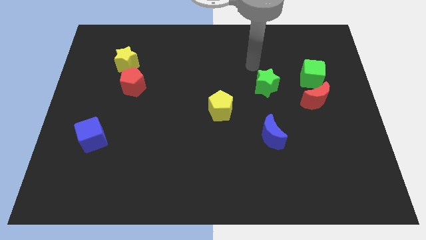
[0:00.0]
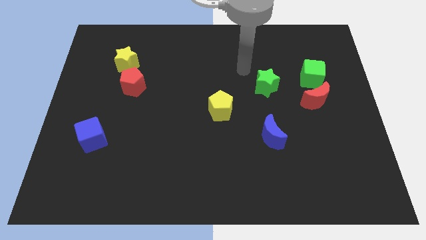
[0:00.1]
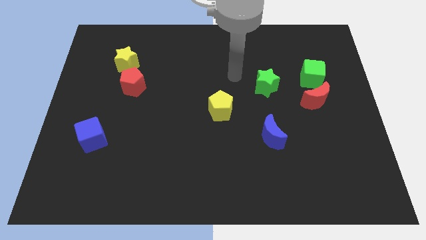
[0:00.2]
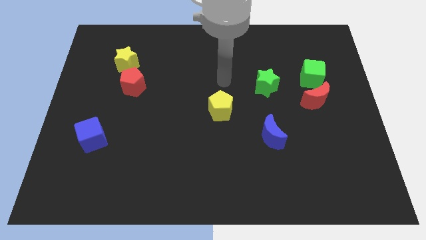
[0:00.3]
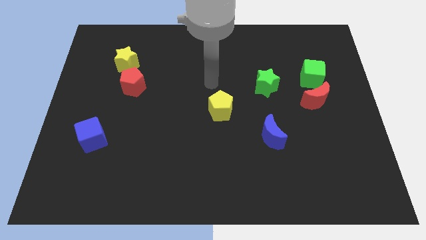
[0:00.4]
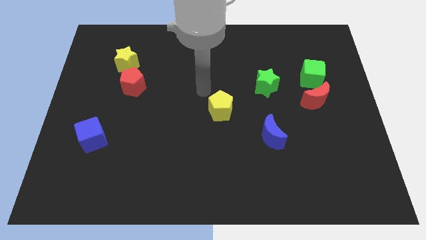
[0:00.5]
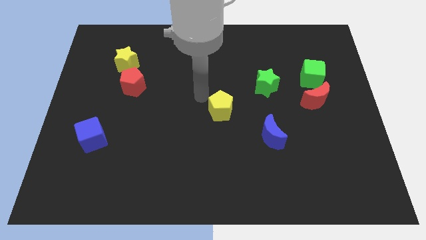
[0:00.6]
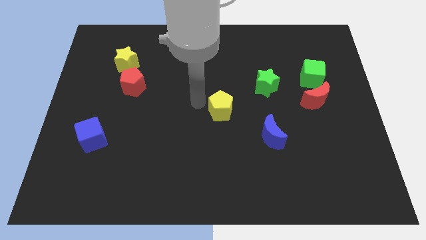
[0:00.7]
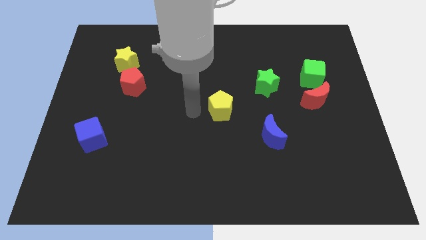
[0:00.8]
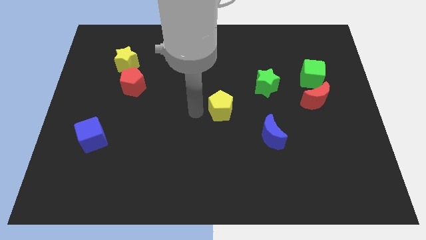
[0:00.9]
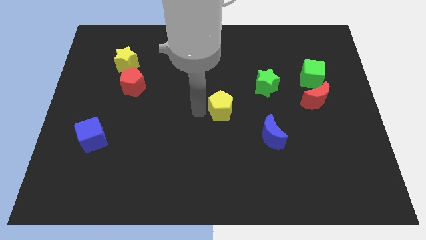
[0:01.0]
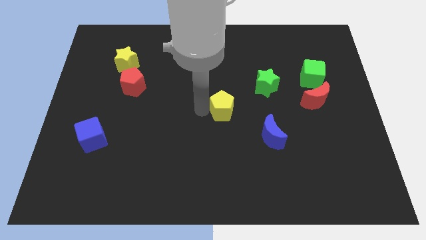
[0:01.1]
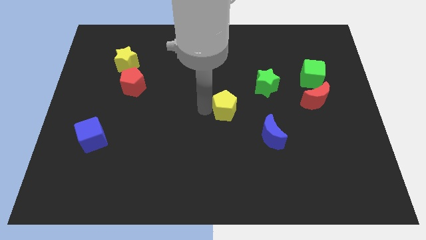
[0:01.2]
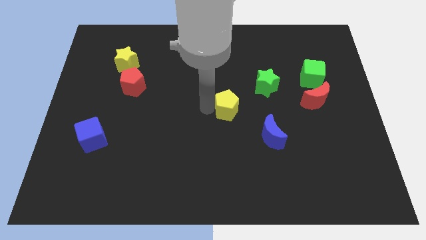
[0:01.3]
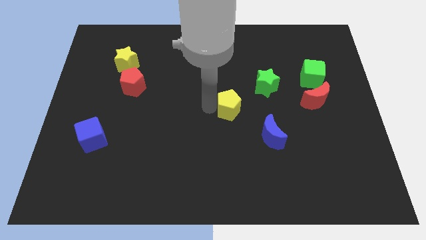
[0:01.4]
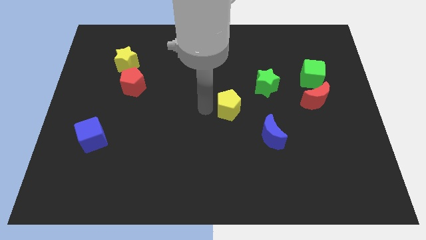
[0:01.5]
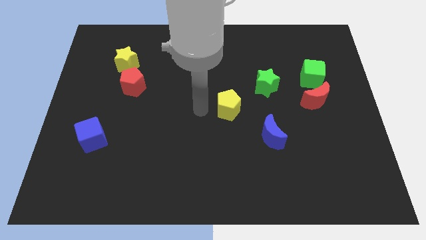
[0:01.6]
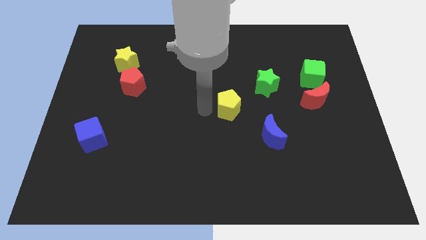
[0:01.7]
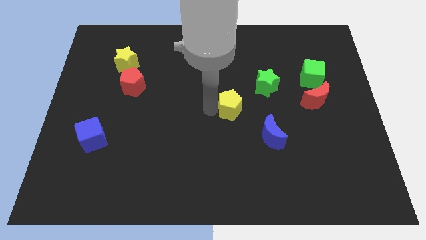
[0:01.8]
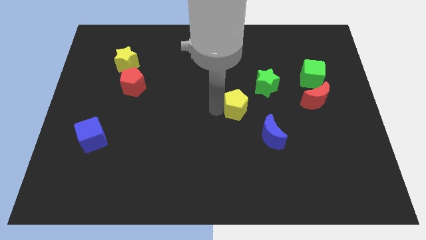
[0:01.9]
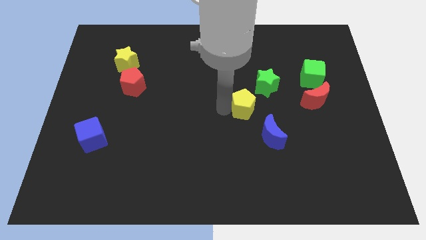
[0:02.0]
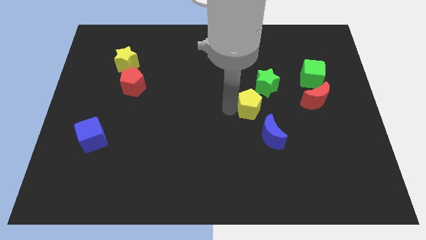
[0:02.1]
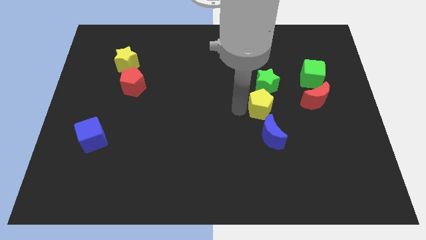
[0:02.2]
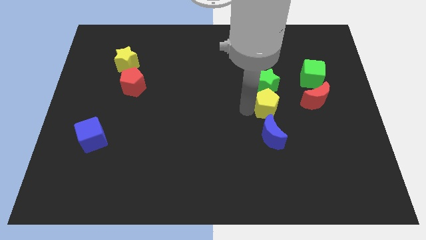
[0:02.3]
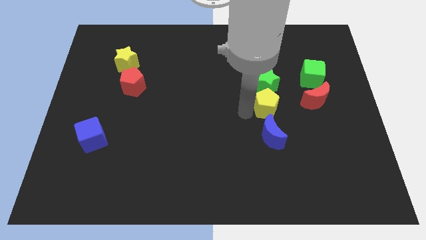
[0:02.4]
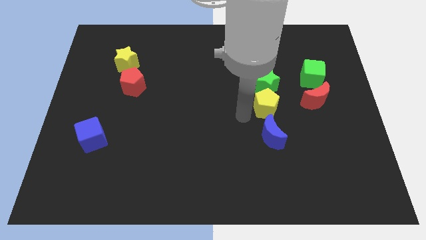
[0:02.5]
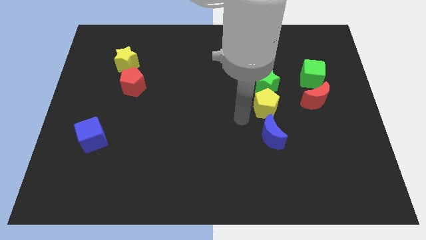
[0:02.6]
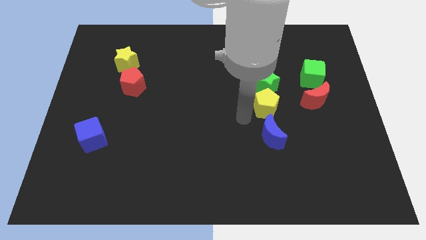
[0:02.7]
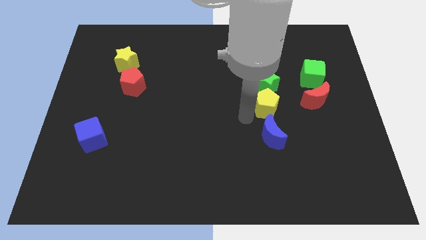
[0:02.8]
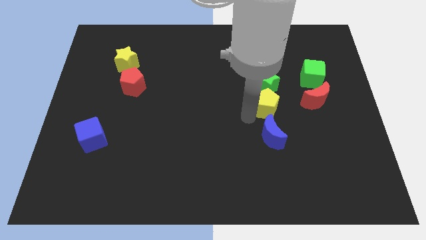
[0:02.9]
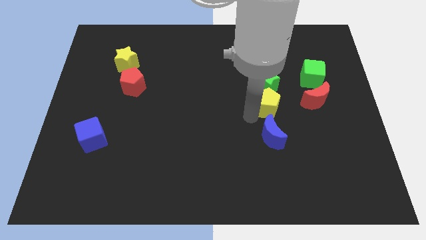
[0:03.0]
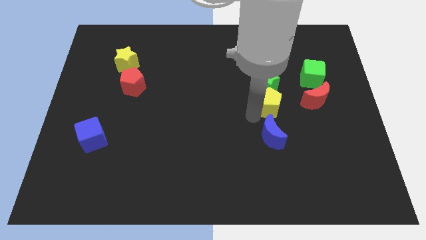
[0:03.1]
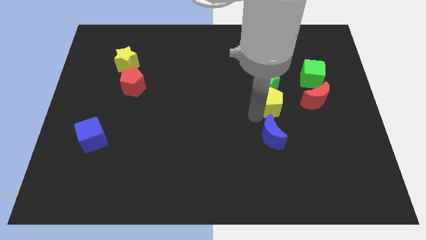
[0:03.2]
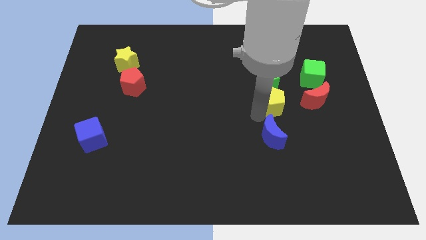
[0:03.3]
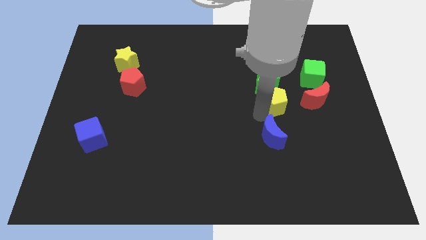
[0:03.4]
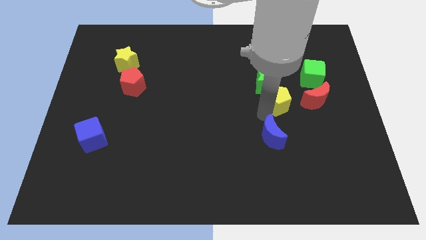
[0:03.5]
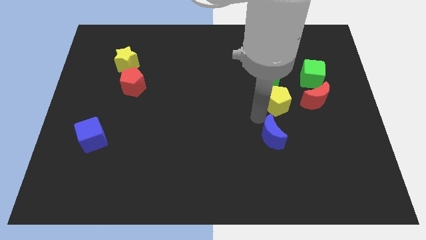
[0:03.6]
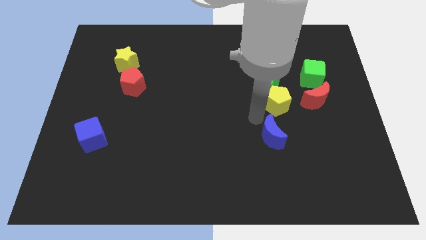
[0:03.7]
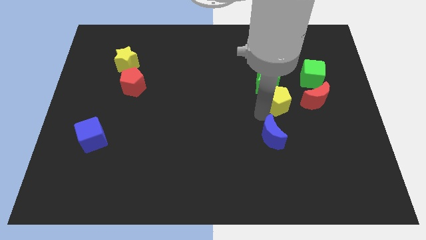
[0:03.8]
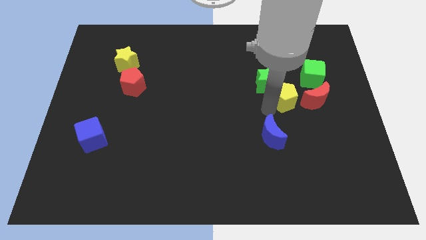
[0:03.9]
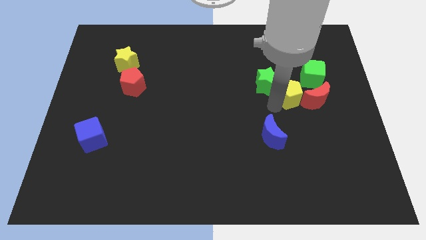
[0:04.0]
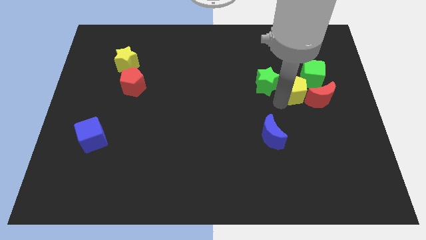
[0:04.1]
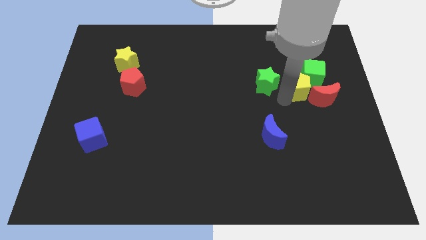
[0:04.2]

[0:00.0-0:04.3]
move the yellow pentagon towards the green cube

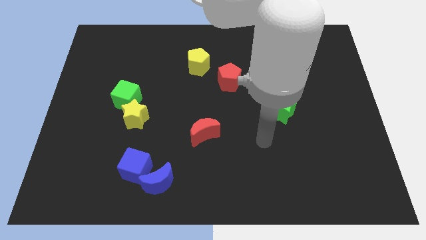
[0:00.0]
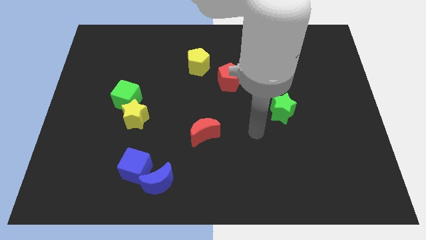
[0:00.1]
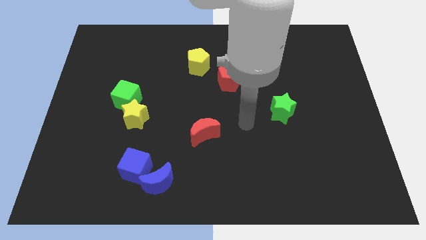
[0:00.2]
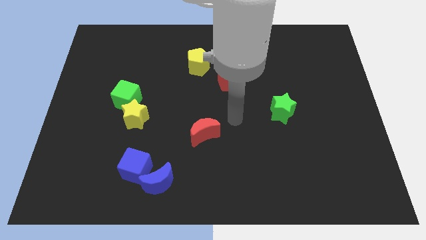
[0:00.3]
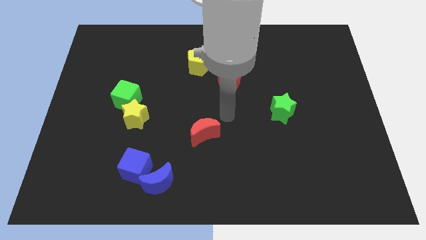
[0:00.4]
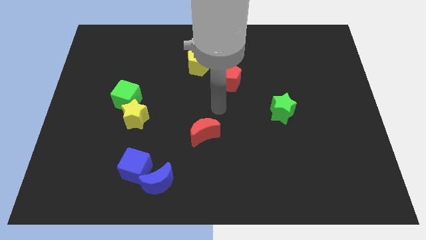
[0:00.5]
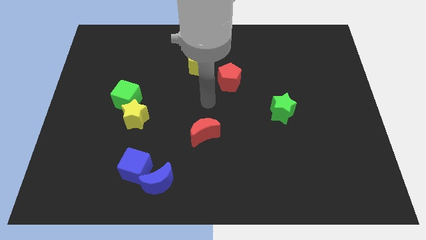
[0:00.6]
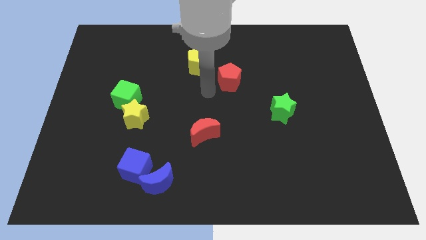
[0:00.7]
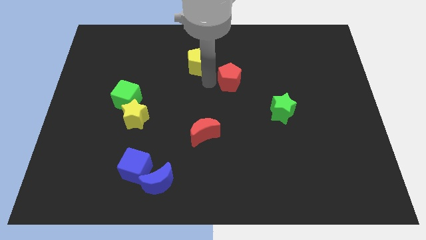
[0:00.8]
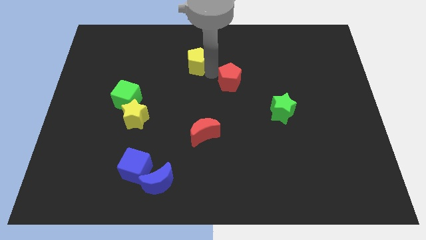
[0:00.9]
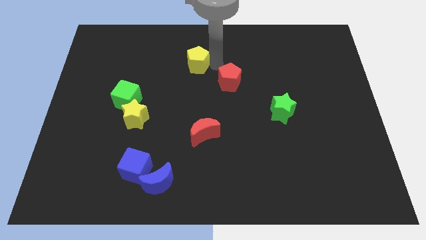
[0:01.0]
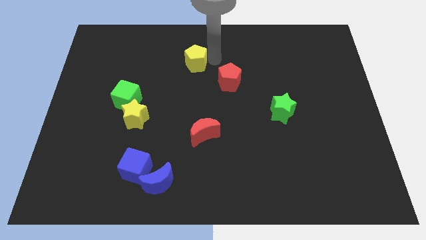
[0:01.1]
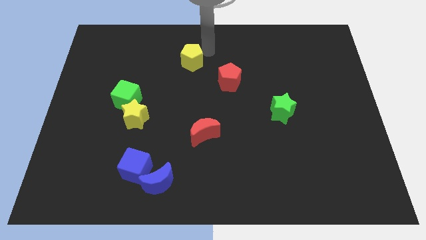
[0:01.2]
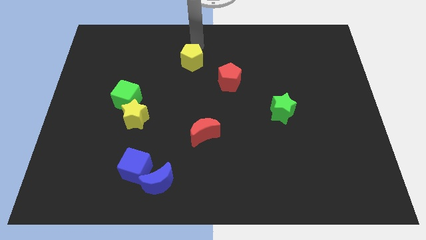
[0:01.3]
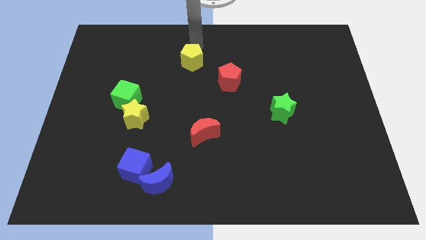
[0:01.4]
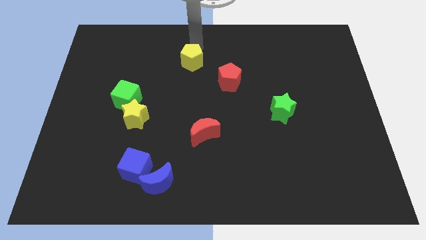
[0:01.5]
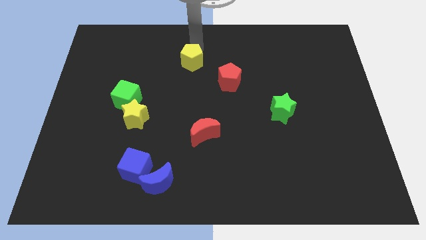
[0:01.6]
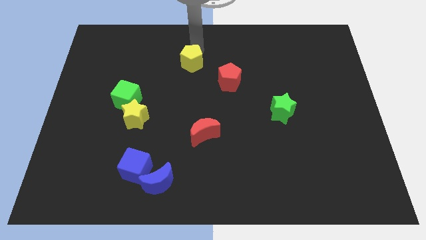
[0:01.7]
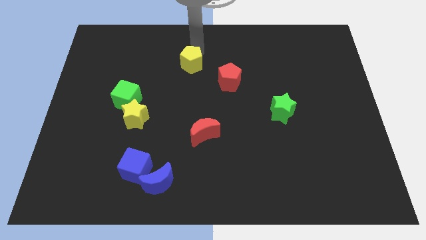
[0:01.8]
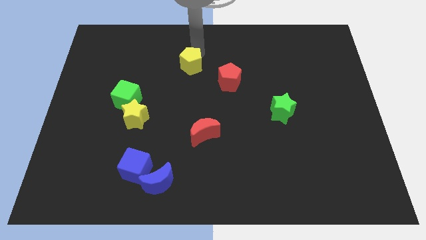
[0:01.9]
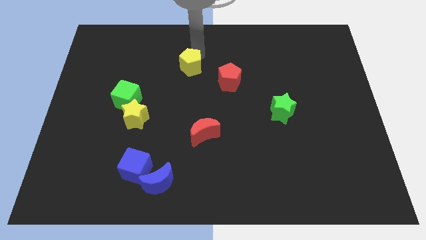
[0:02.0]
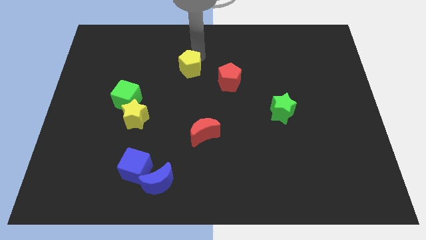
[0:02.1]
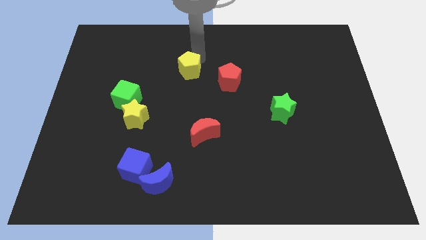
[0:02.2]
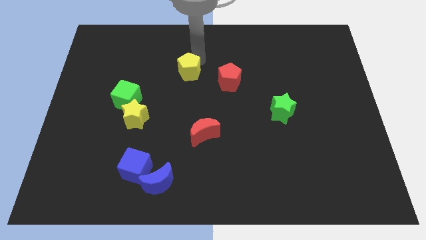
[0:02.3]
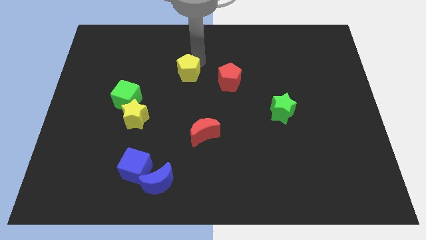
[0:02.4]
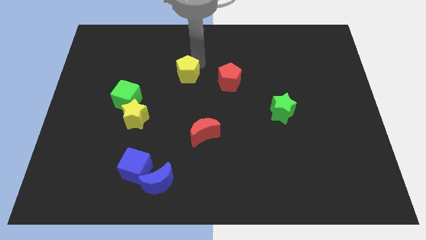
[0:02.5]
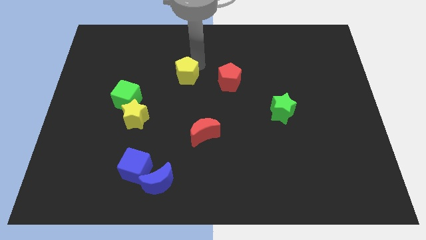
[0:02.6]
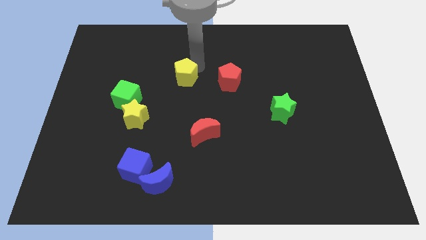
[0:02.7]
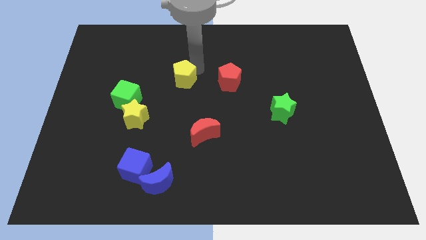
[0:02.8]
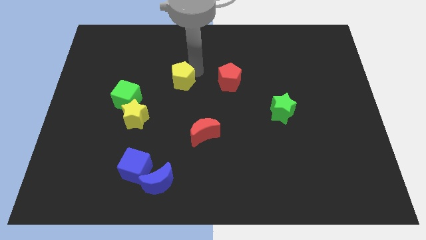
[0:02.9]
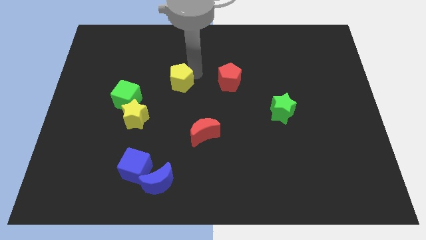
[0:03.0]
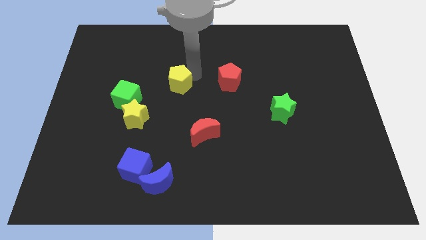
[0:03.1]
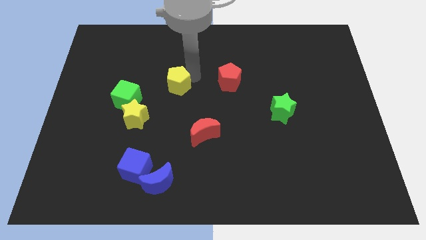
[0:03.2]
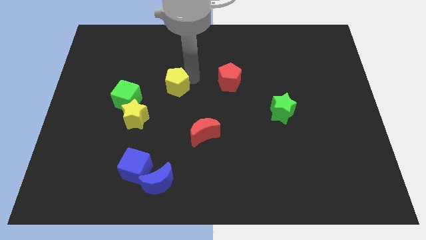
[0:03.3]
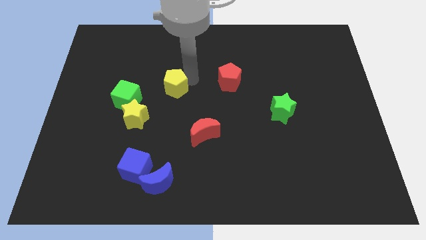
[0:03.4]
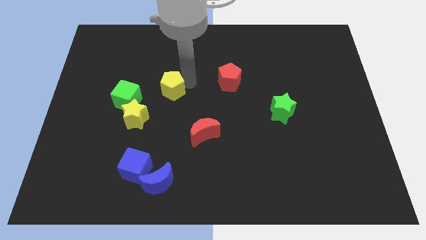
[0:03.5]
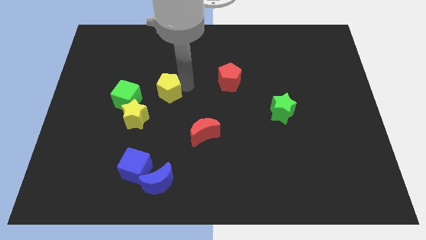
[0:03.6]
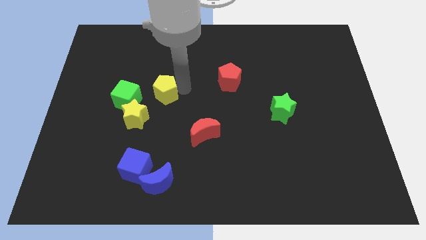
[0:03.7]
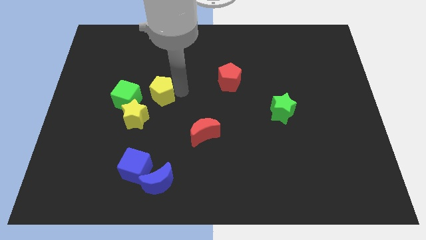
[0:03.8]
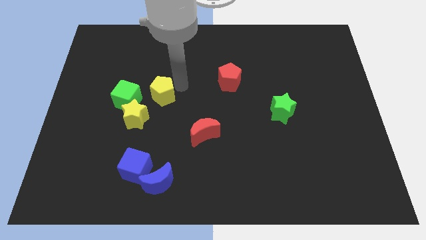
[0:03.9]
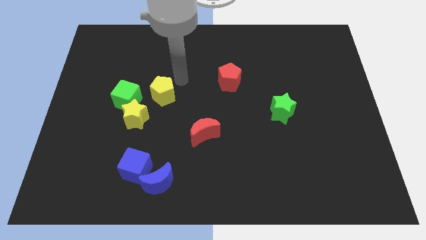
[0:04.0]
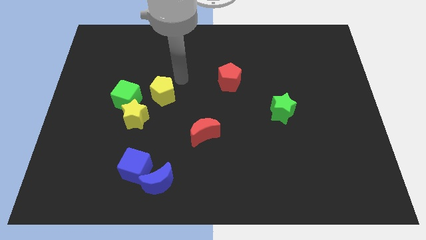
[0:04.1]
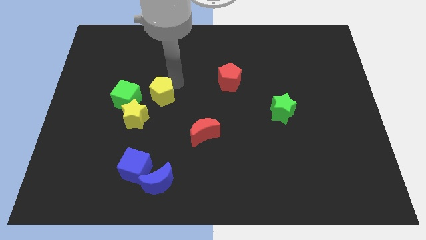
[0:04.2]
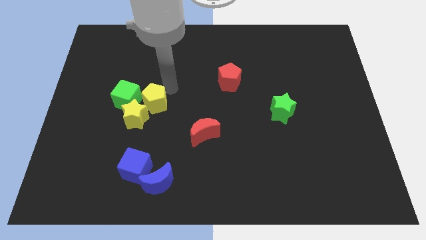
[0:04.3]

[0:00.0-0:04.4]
move the yellow pentagon to the yellow star
